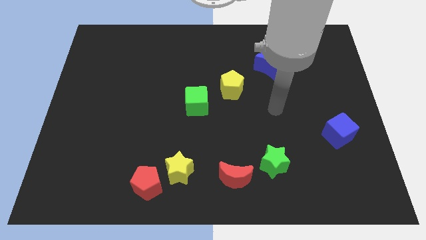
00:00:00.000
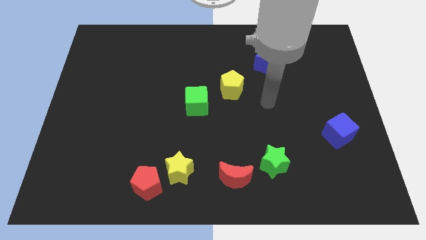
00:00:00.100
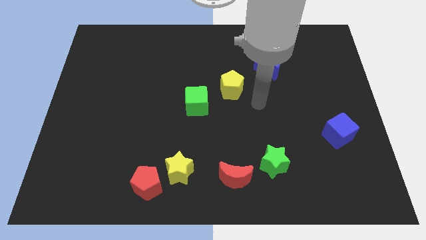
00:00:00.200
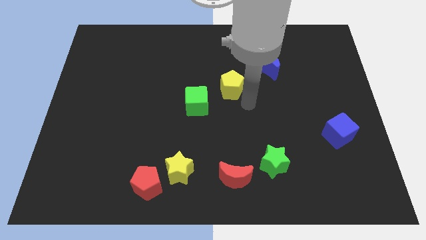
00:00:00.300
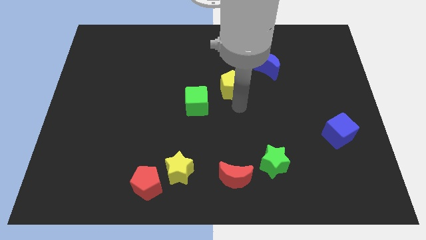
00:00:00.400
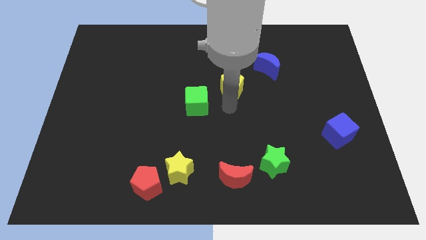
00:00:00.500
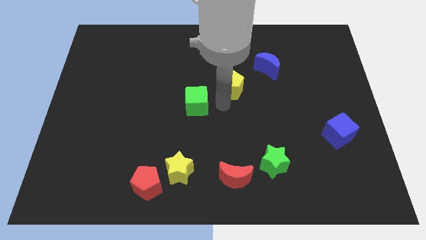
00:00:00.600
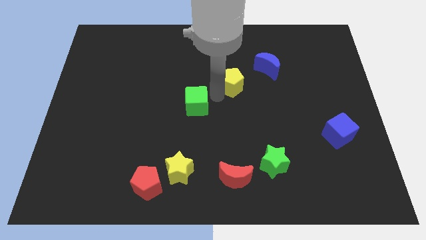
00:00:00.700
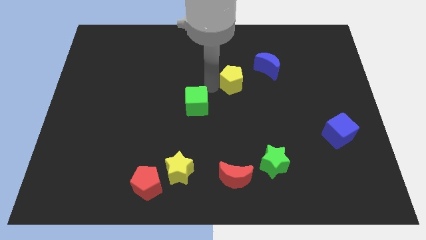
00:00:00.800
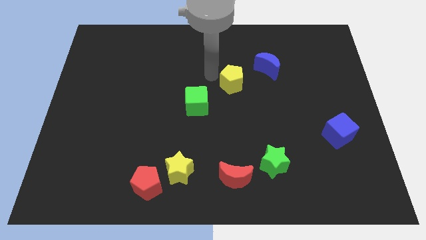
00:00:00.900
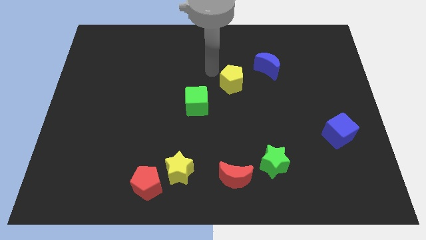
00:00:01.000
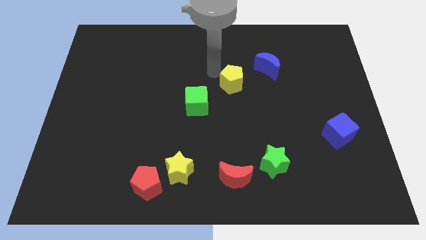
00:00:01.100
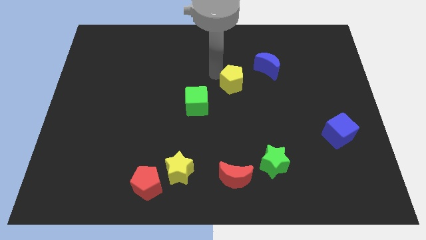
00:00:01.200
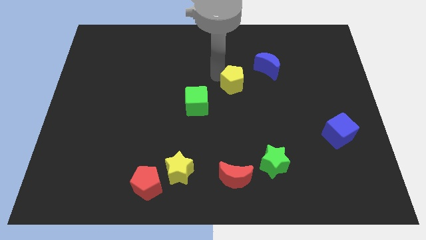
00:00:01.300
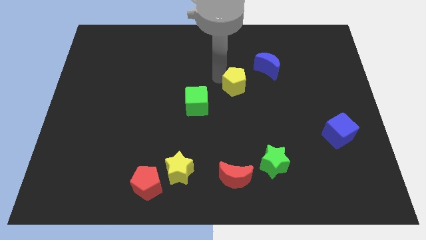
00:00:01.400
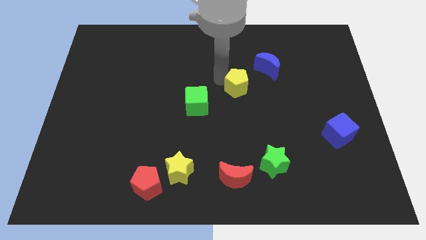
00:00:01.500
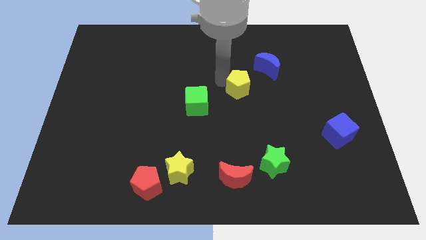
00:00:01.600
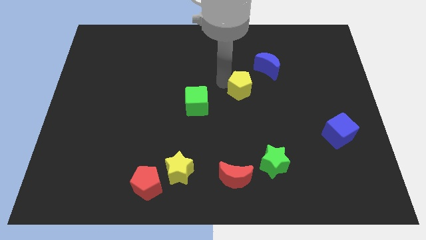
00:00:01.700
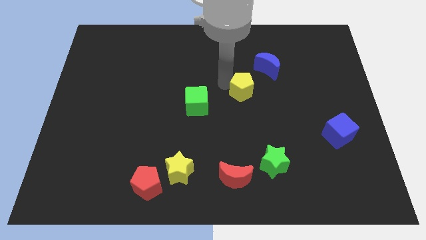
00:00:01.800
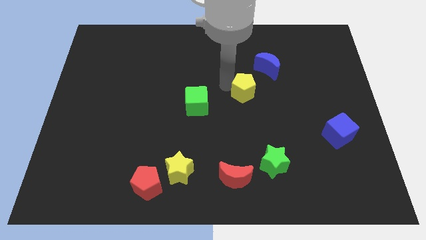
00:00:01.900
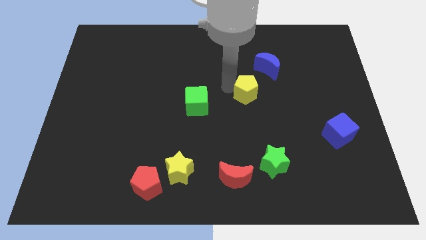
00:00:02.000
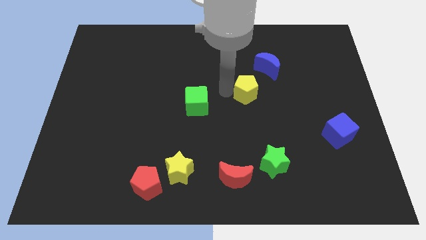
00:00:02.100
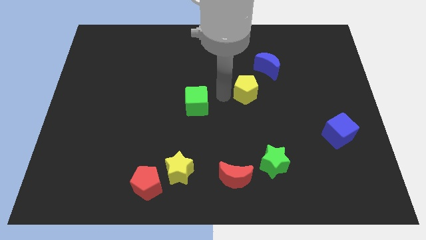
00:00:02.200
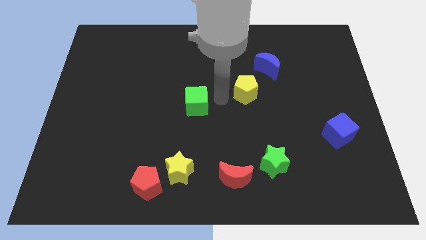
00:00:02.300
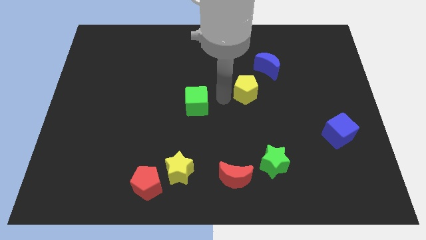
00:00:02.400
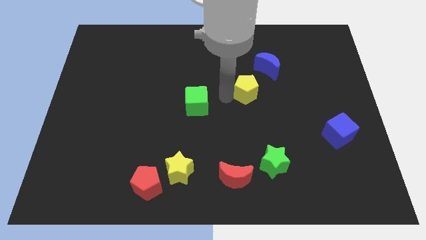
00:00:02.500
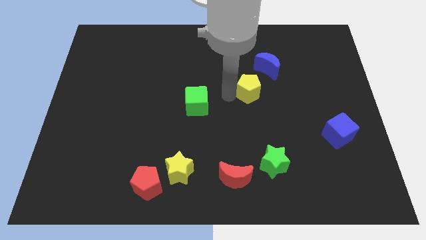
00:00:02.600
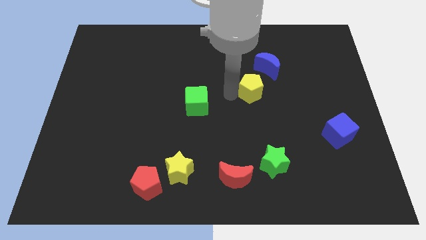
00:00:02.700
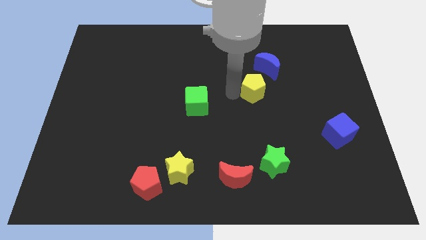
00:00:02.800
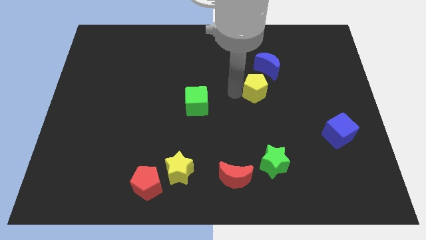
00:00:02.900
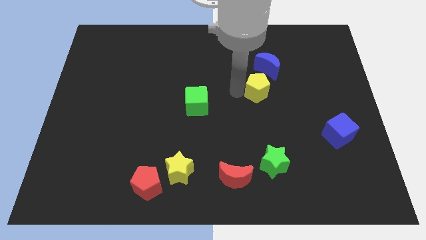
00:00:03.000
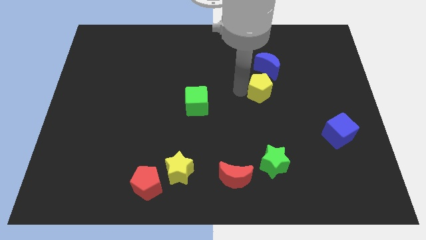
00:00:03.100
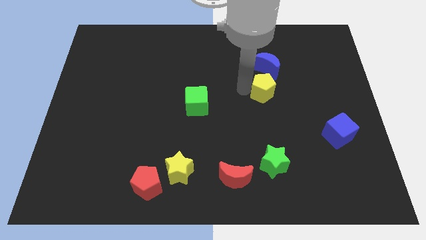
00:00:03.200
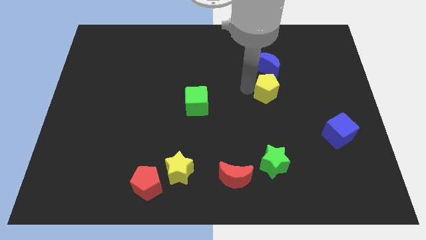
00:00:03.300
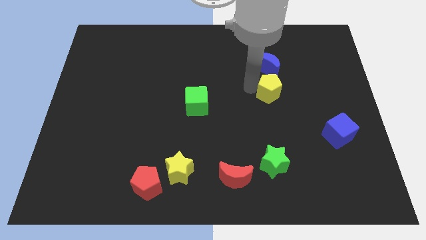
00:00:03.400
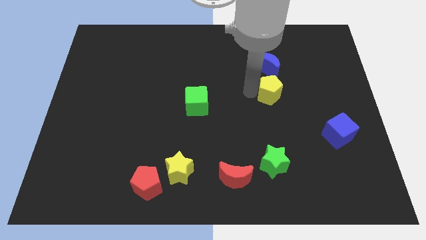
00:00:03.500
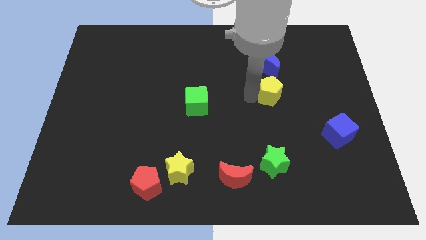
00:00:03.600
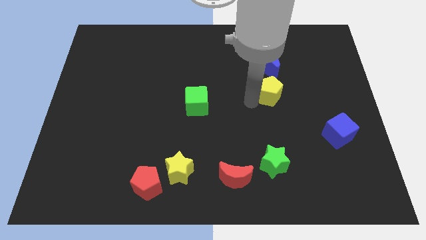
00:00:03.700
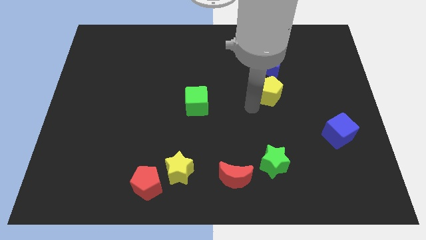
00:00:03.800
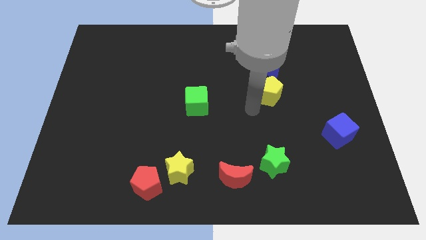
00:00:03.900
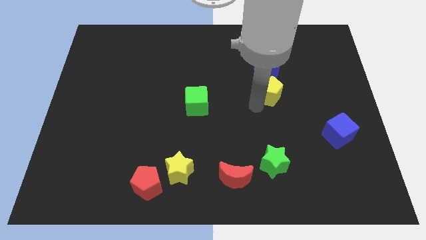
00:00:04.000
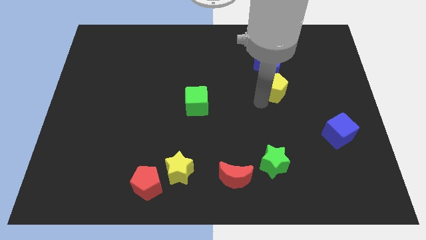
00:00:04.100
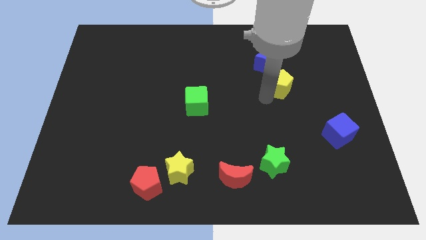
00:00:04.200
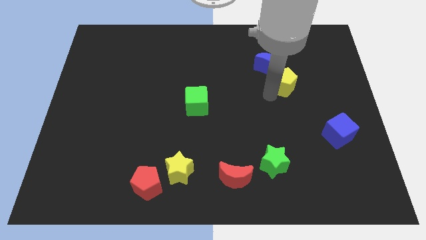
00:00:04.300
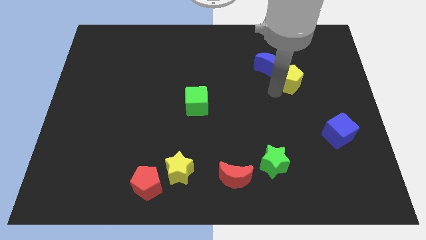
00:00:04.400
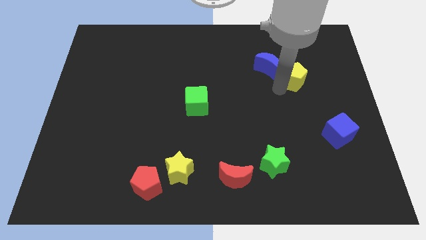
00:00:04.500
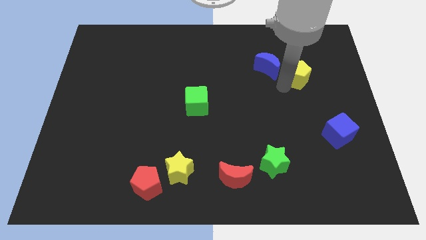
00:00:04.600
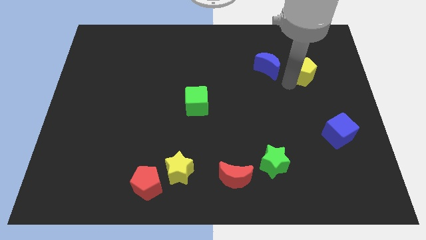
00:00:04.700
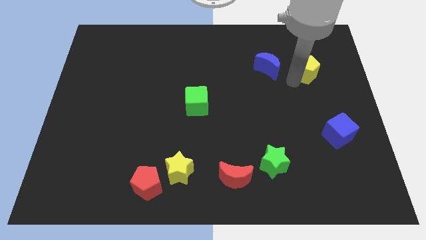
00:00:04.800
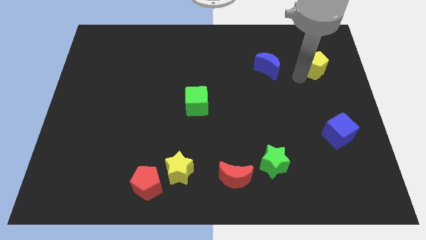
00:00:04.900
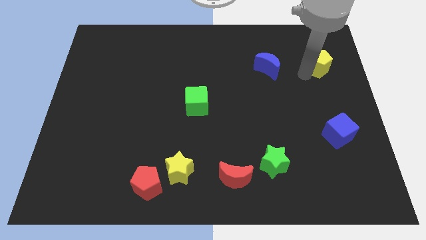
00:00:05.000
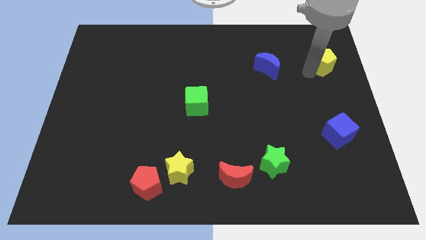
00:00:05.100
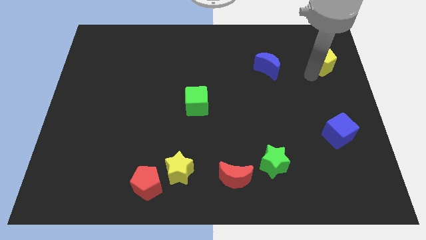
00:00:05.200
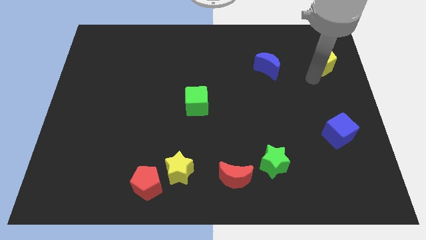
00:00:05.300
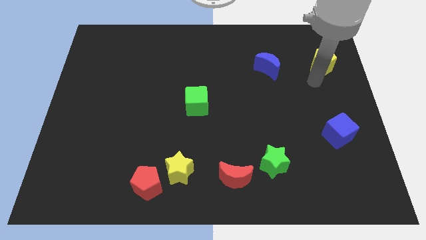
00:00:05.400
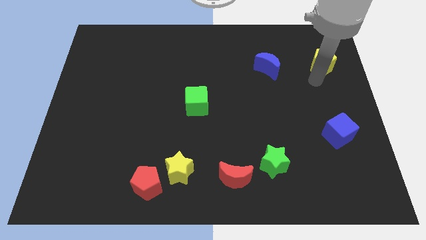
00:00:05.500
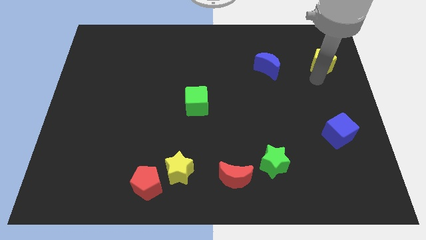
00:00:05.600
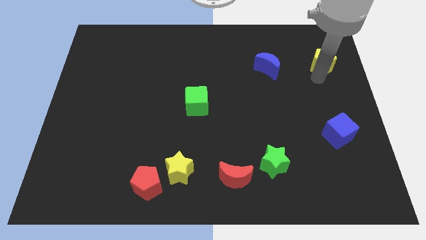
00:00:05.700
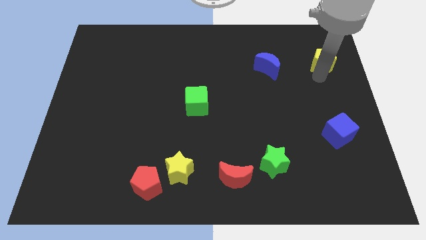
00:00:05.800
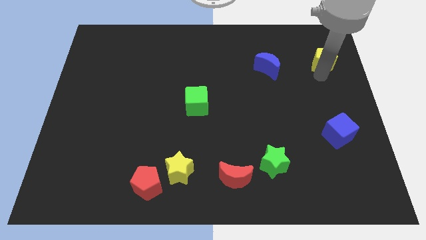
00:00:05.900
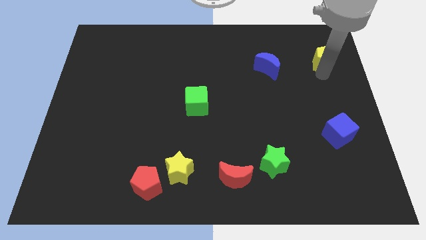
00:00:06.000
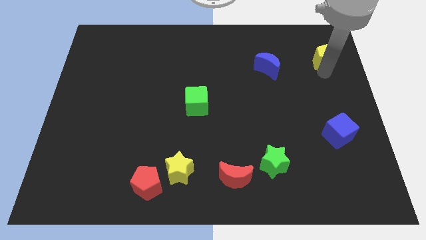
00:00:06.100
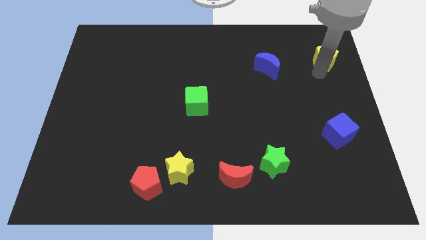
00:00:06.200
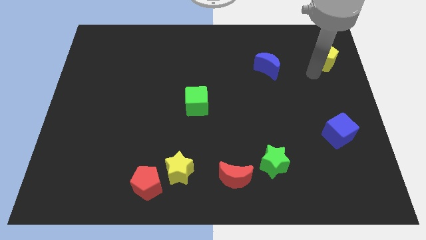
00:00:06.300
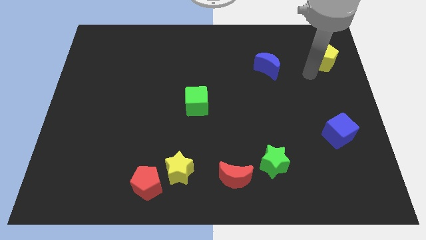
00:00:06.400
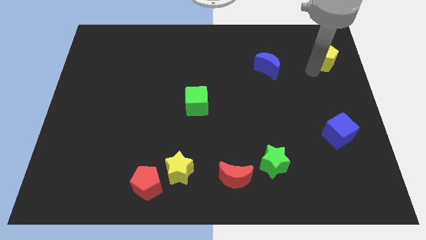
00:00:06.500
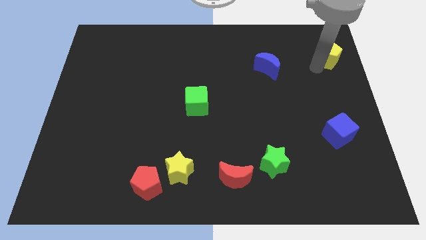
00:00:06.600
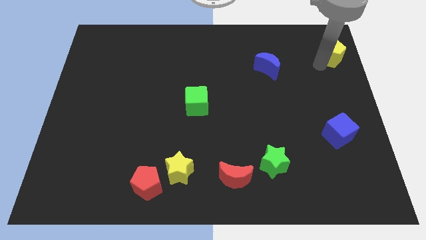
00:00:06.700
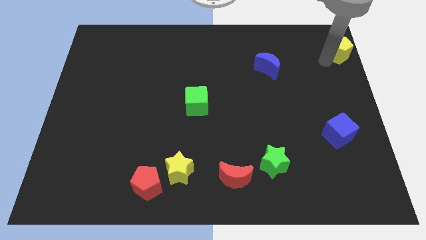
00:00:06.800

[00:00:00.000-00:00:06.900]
put the yellow pentagon to the top right corner
